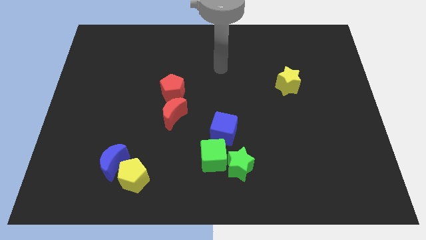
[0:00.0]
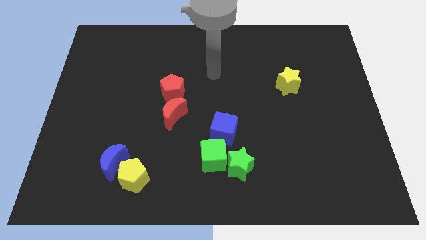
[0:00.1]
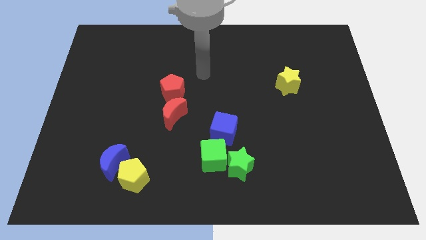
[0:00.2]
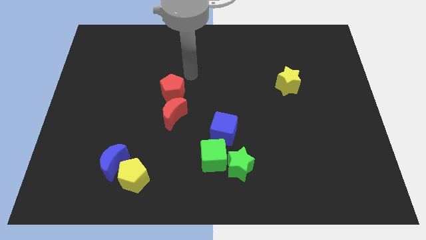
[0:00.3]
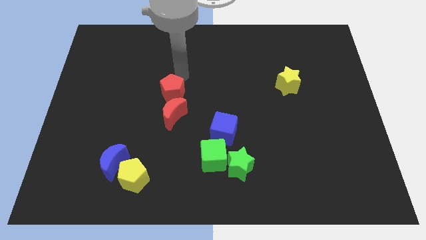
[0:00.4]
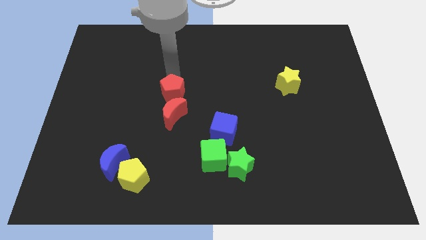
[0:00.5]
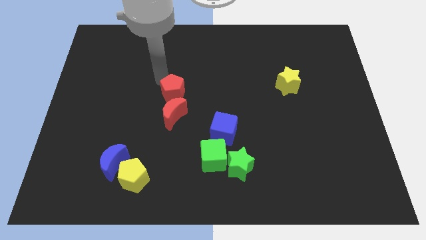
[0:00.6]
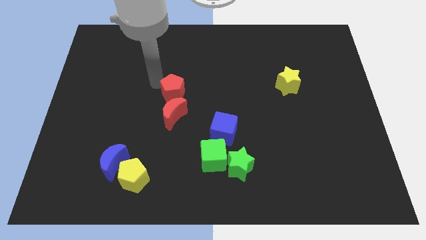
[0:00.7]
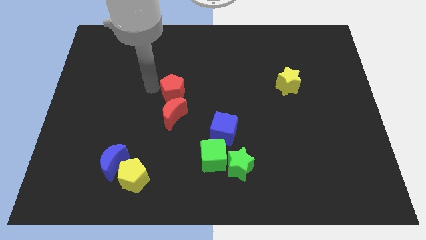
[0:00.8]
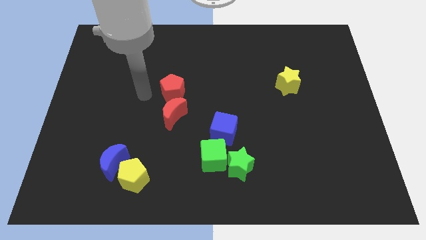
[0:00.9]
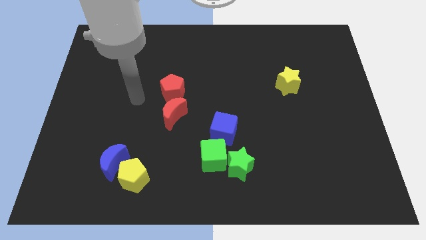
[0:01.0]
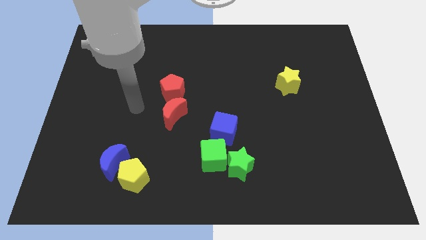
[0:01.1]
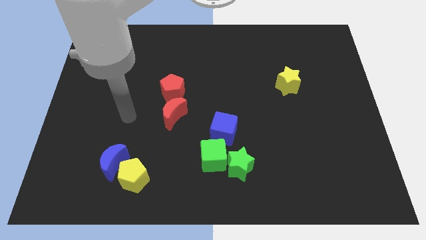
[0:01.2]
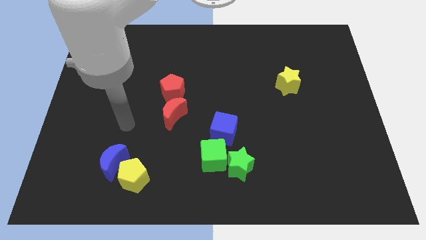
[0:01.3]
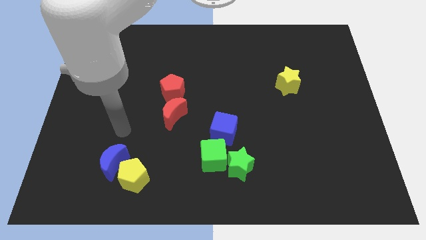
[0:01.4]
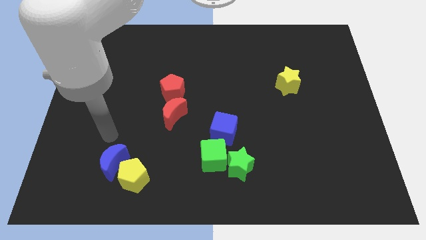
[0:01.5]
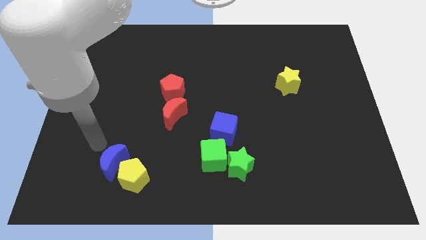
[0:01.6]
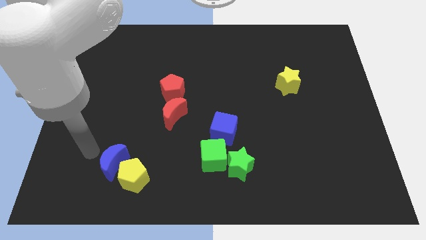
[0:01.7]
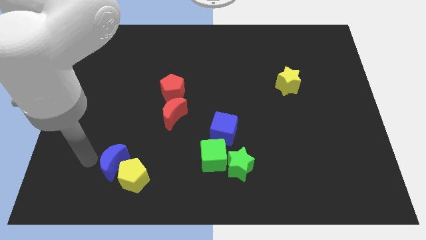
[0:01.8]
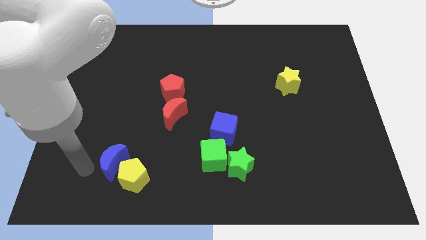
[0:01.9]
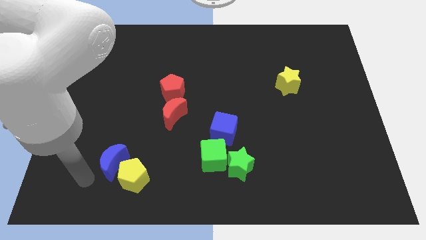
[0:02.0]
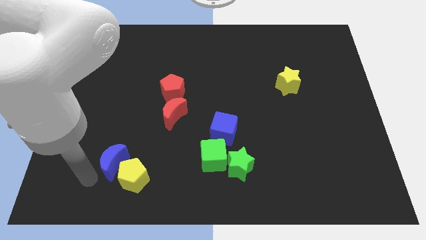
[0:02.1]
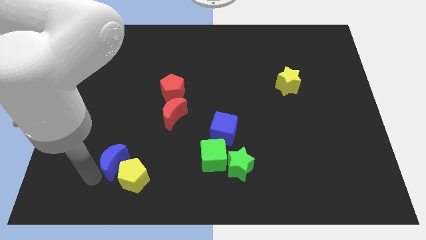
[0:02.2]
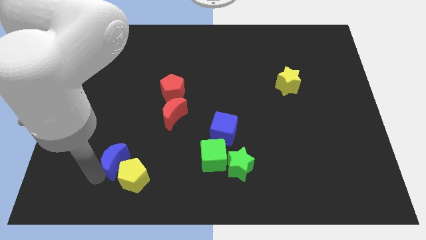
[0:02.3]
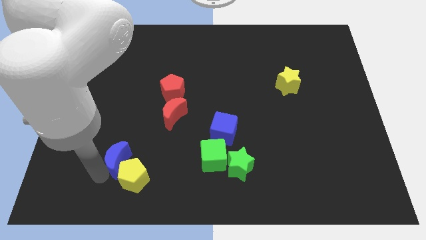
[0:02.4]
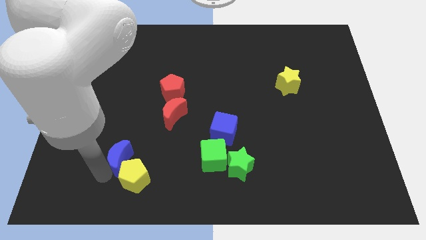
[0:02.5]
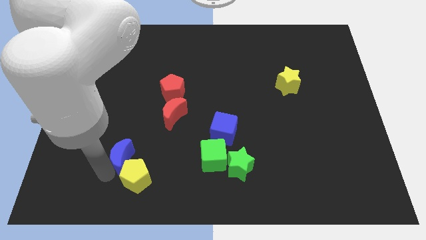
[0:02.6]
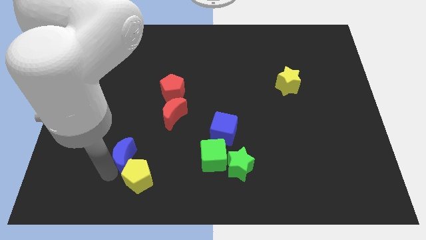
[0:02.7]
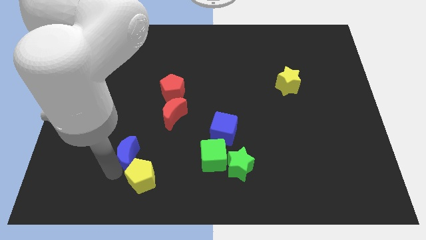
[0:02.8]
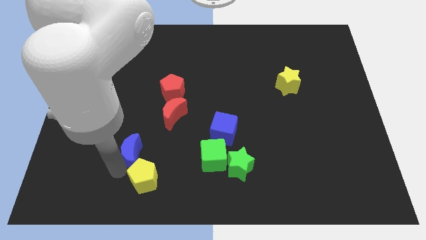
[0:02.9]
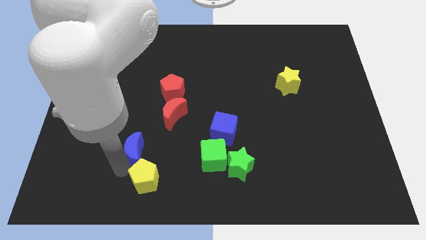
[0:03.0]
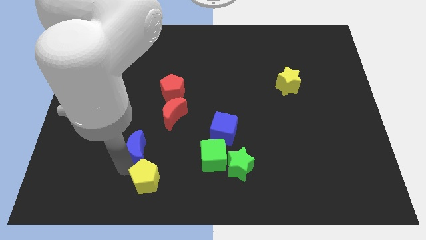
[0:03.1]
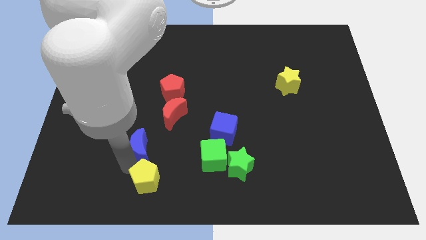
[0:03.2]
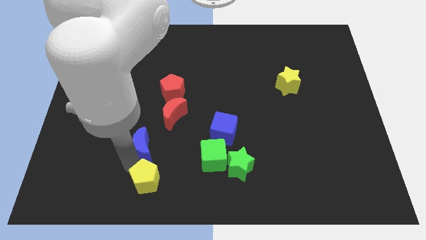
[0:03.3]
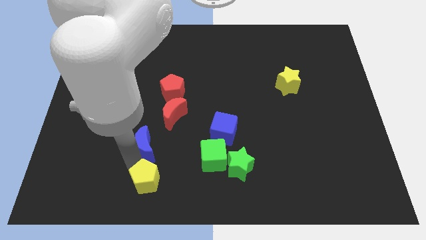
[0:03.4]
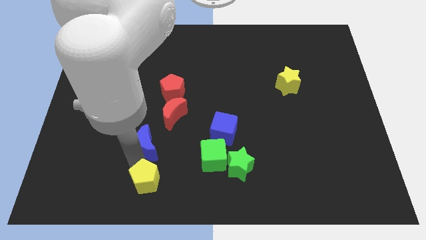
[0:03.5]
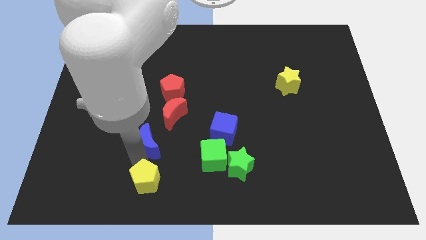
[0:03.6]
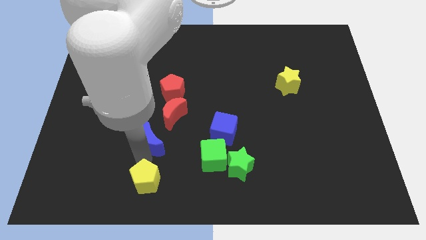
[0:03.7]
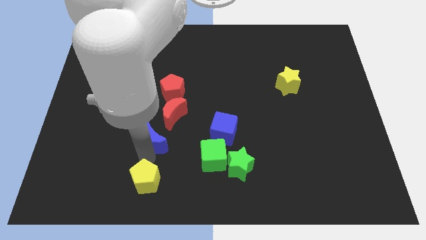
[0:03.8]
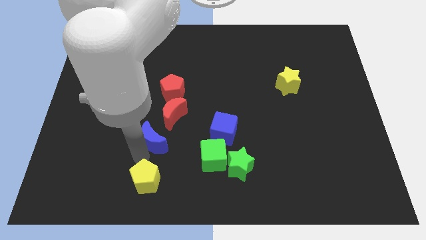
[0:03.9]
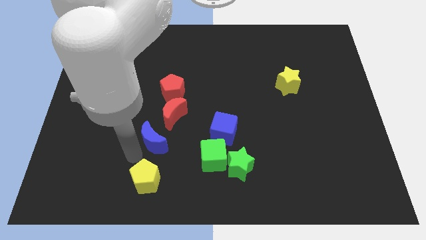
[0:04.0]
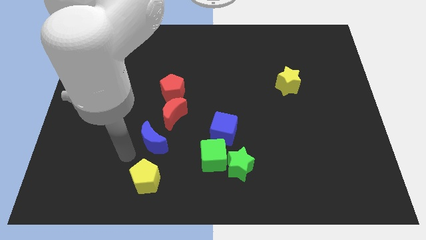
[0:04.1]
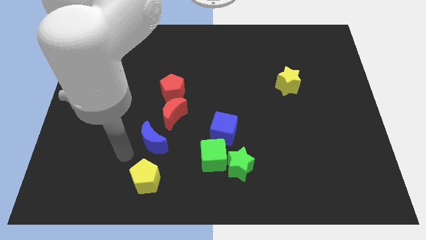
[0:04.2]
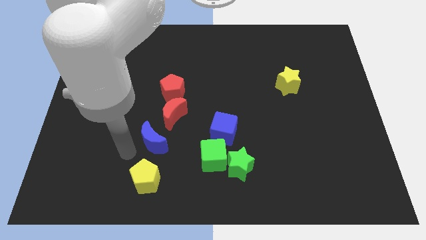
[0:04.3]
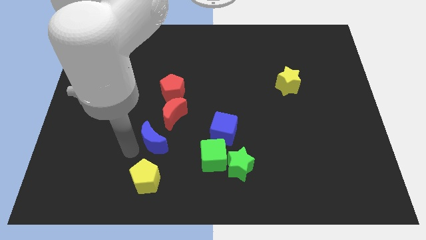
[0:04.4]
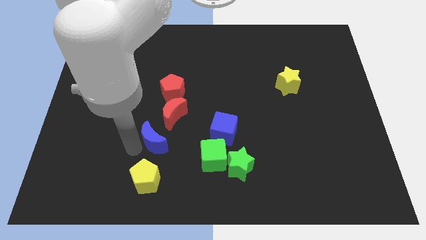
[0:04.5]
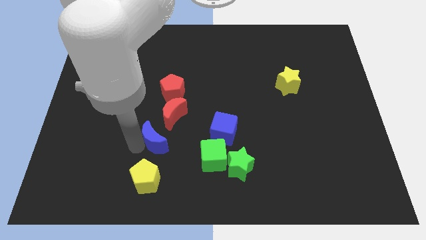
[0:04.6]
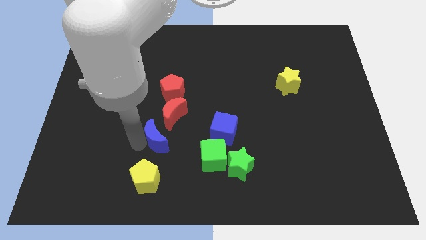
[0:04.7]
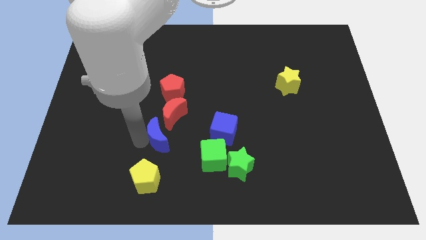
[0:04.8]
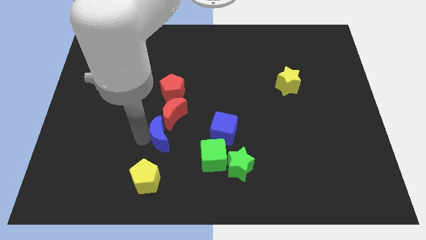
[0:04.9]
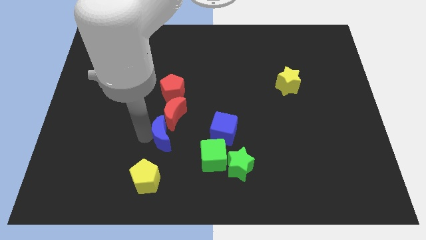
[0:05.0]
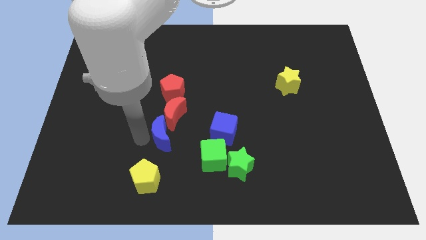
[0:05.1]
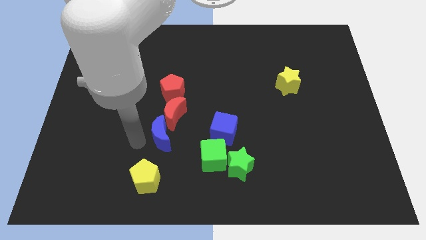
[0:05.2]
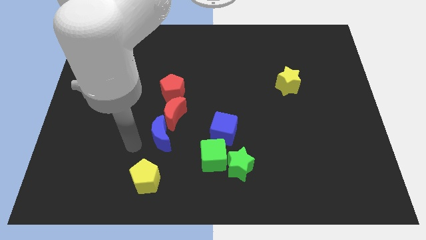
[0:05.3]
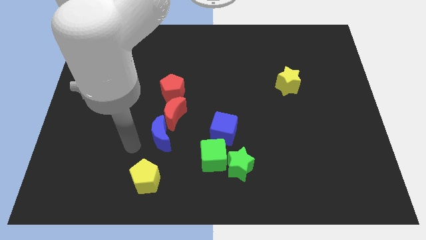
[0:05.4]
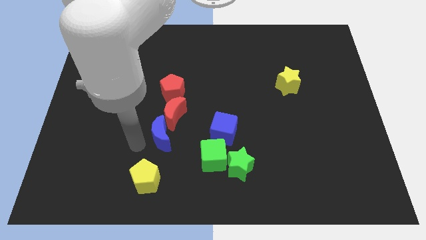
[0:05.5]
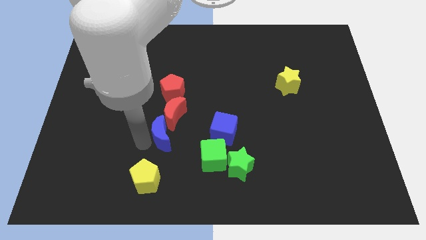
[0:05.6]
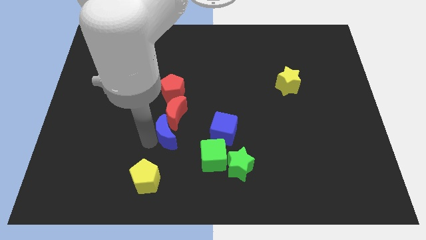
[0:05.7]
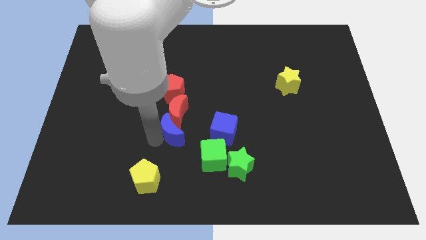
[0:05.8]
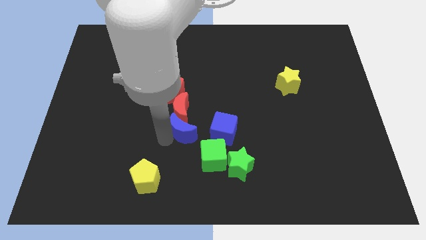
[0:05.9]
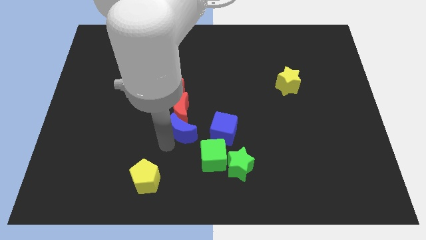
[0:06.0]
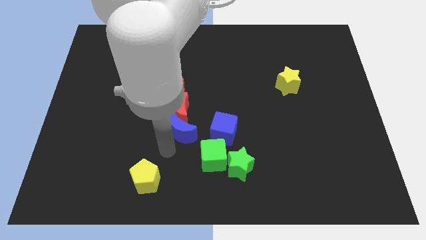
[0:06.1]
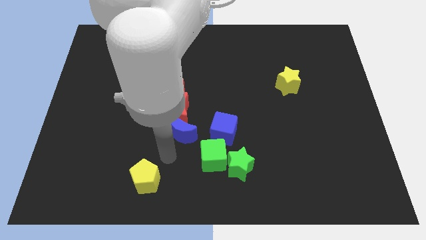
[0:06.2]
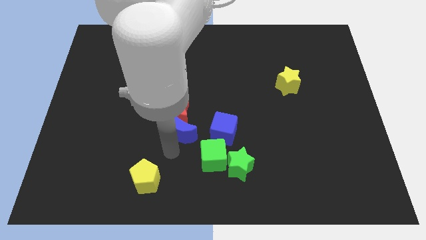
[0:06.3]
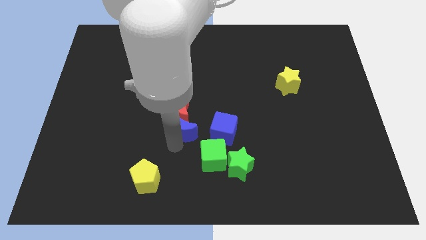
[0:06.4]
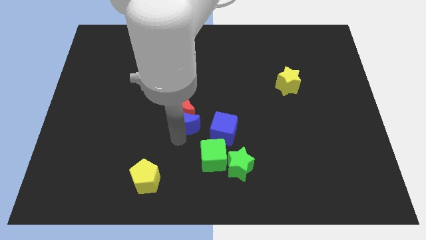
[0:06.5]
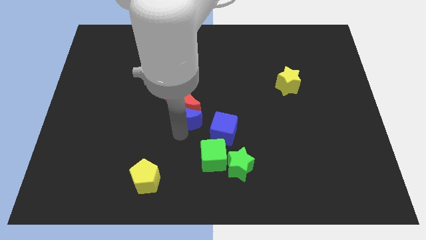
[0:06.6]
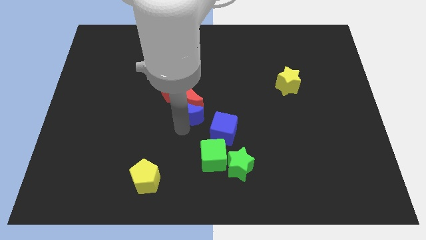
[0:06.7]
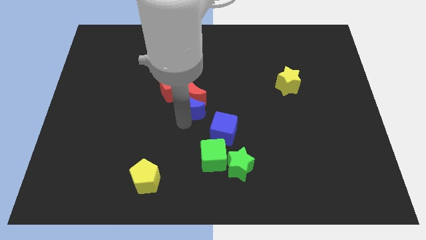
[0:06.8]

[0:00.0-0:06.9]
move the blue moon upwards and then to the right

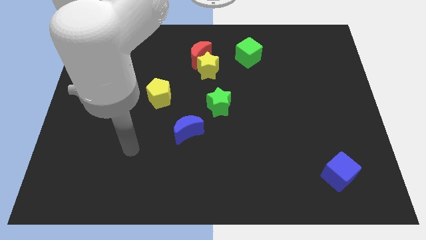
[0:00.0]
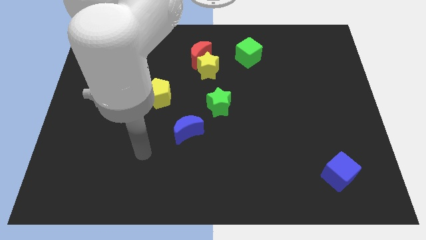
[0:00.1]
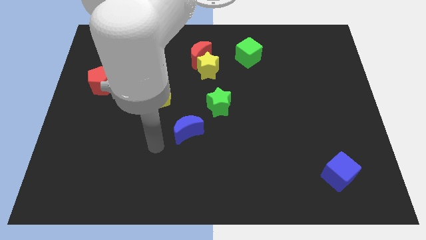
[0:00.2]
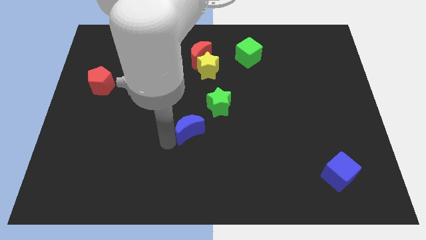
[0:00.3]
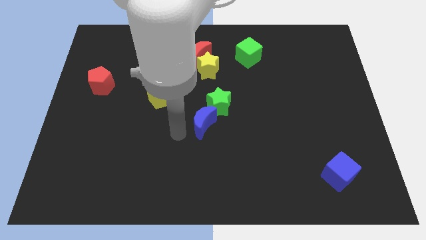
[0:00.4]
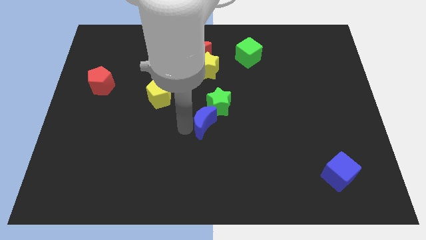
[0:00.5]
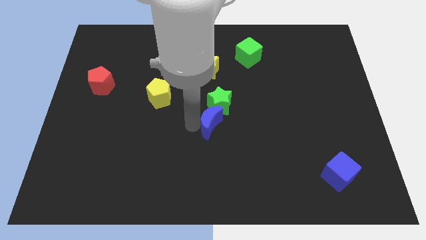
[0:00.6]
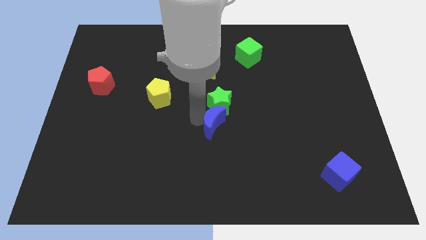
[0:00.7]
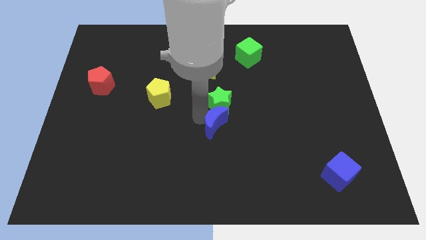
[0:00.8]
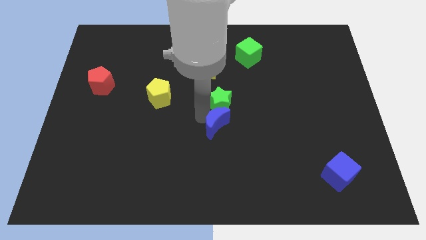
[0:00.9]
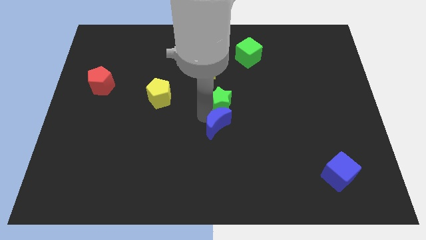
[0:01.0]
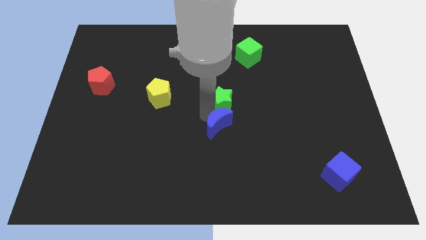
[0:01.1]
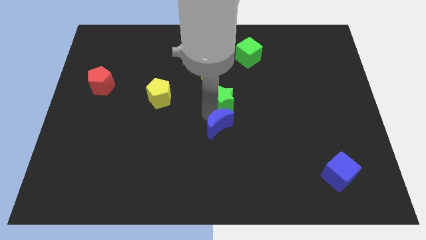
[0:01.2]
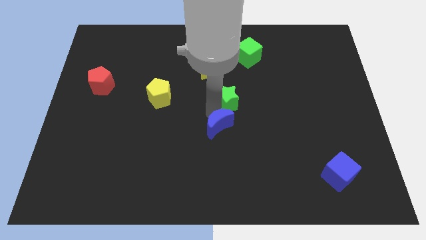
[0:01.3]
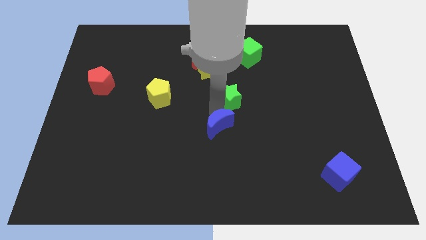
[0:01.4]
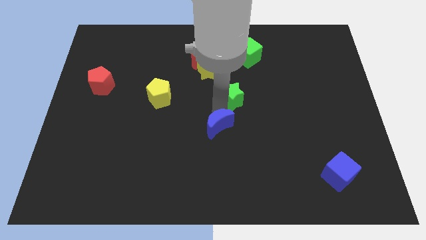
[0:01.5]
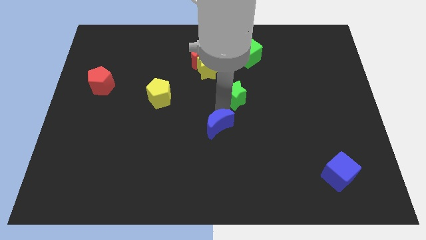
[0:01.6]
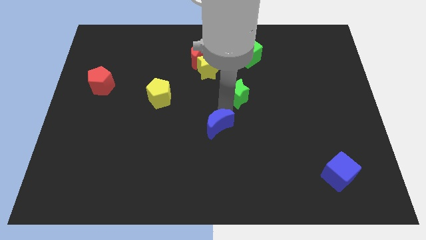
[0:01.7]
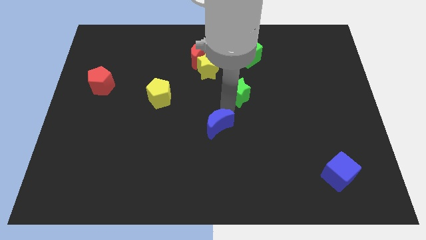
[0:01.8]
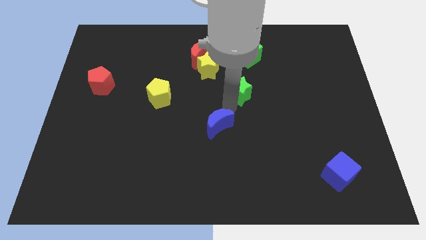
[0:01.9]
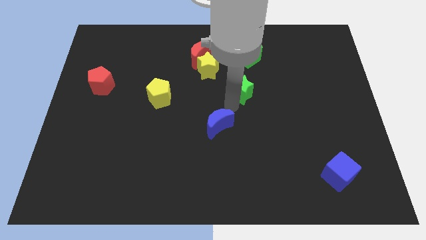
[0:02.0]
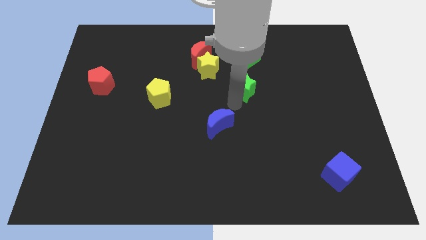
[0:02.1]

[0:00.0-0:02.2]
slide the green star diagonally up and right a little bit
